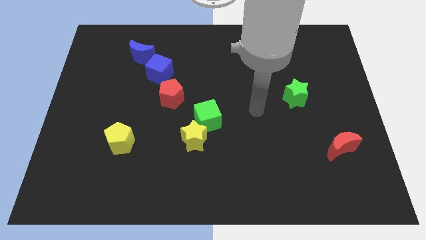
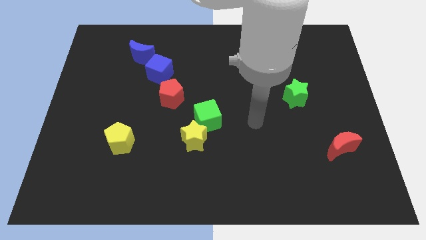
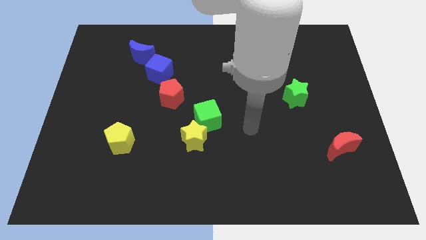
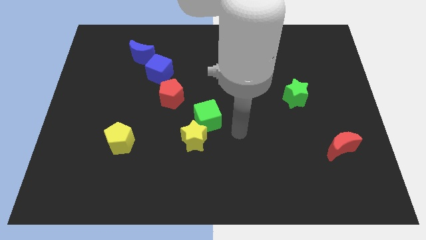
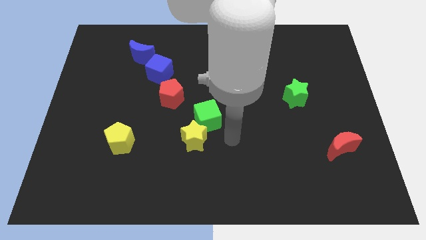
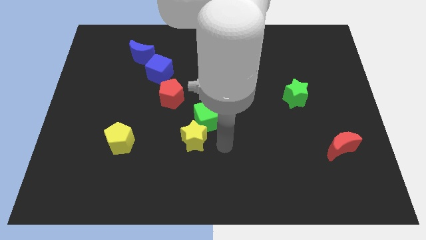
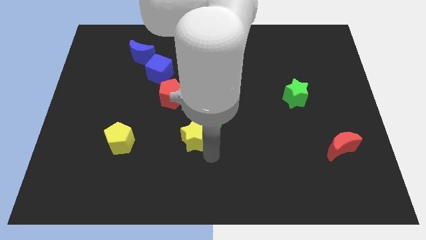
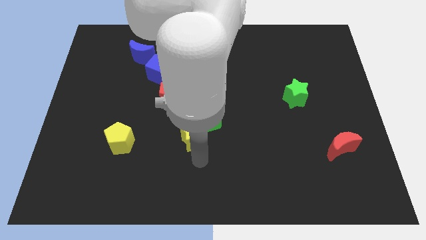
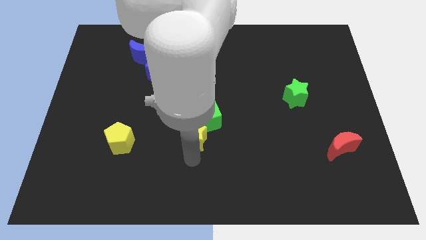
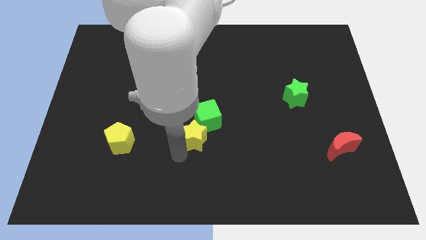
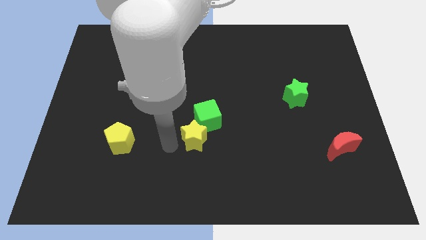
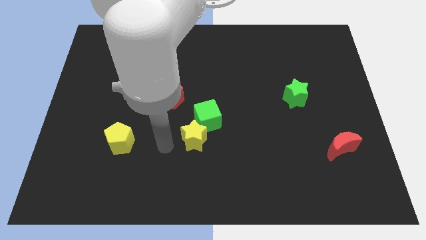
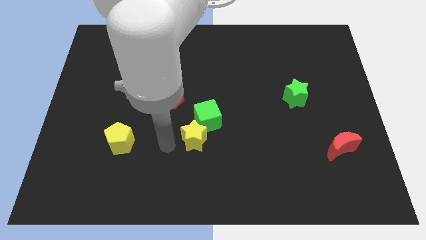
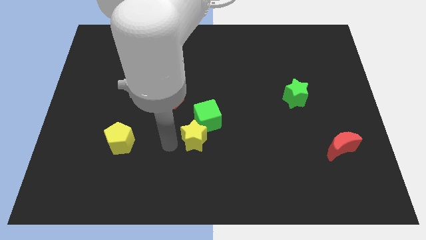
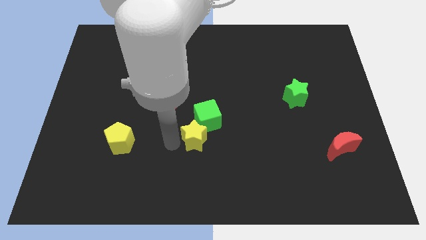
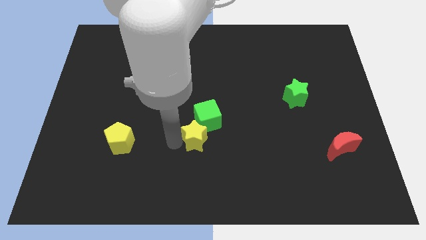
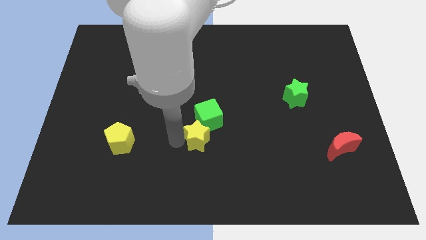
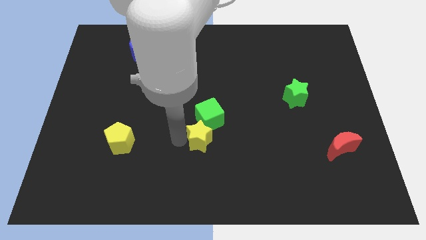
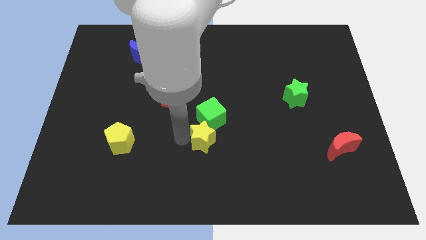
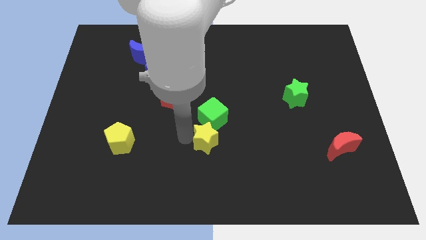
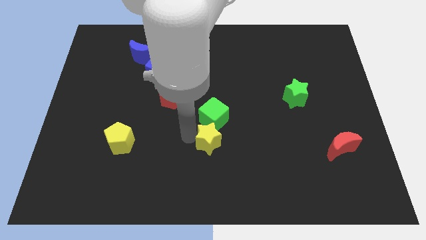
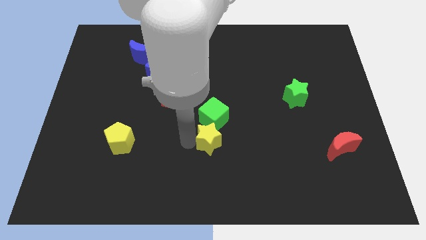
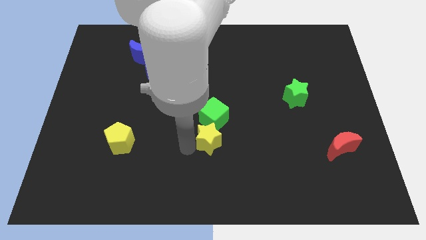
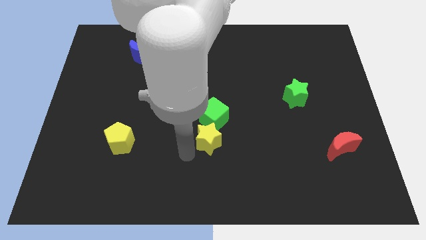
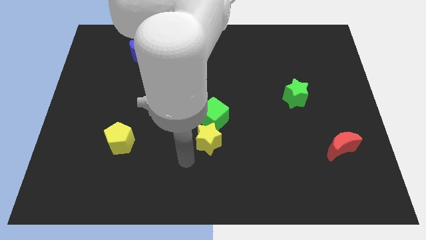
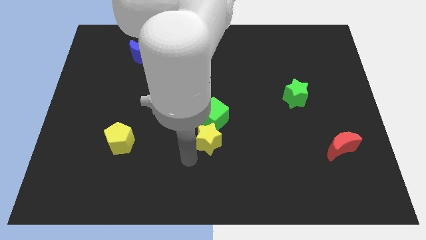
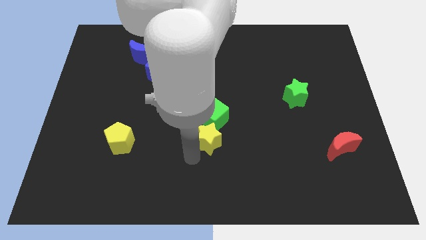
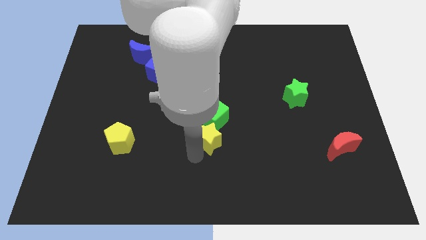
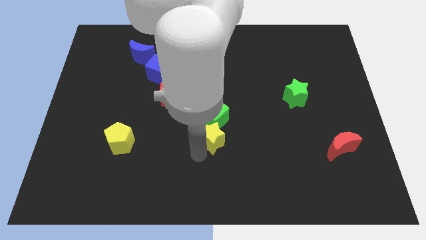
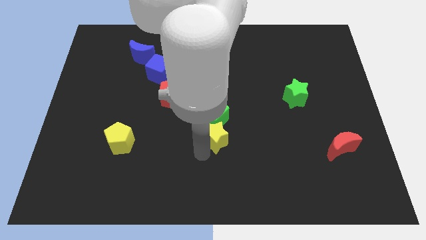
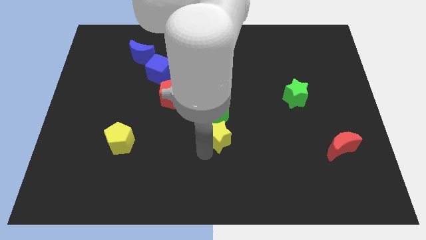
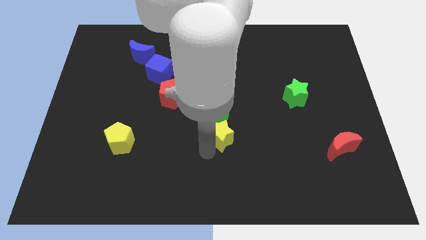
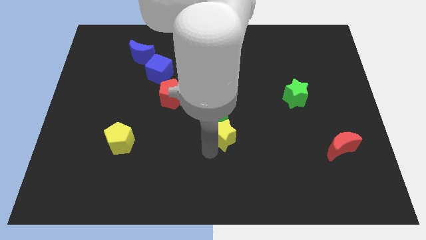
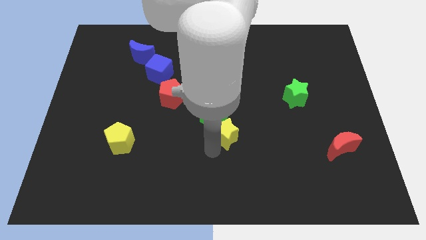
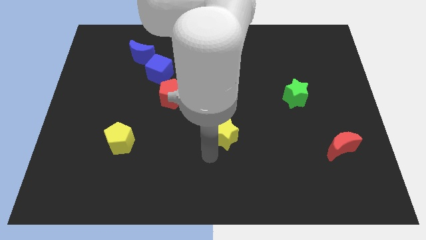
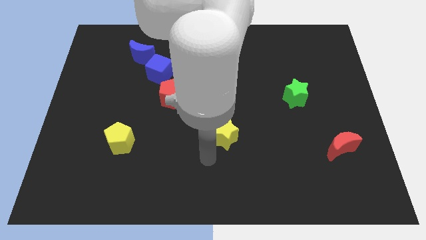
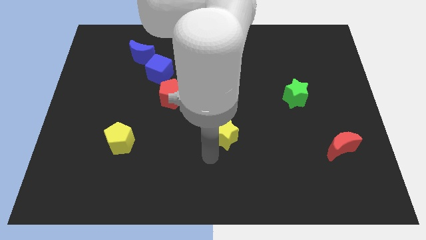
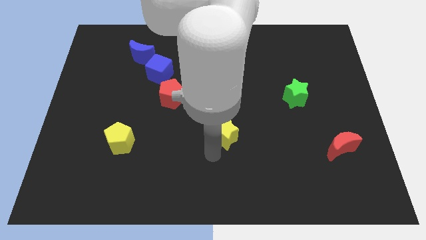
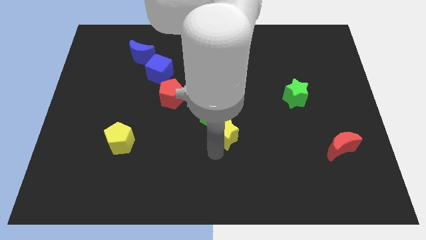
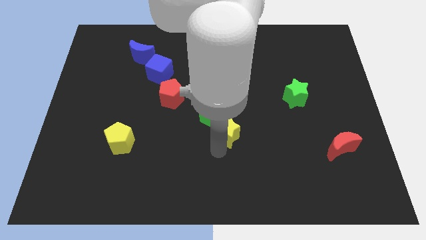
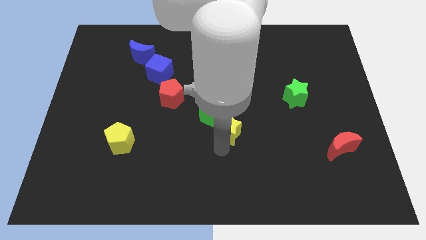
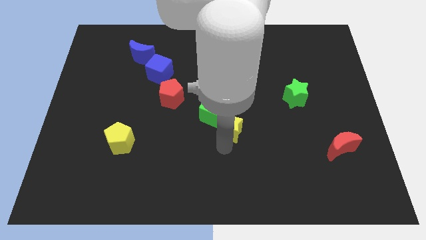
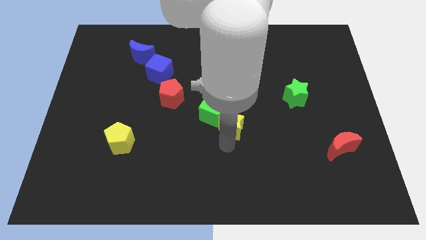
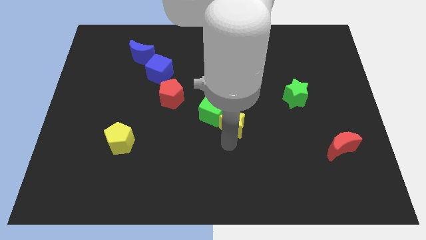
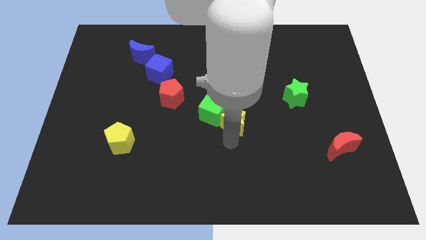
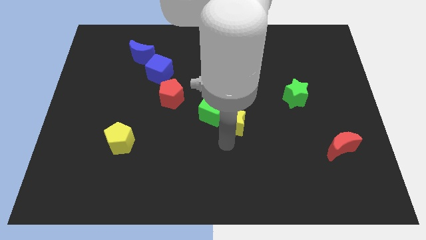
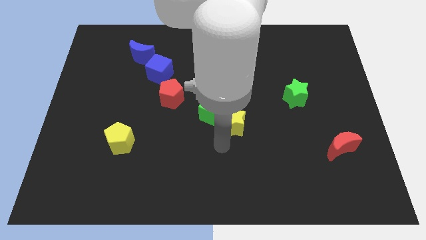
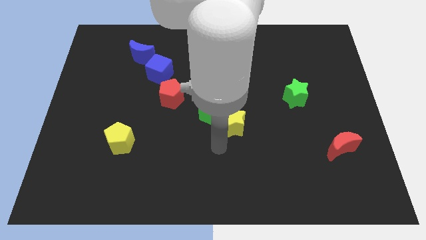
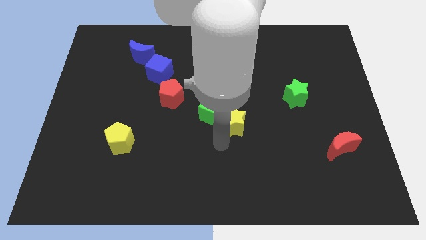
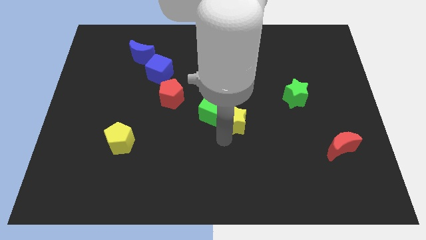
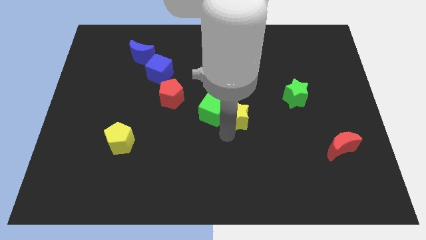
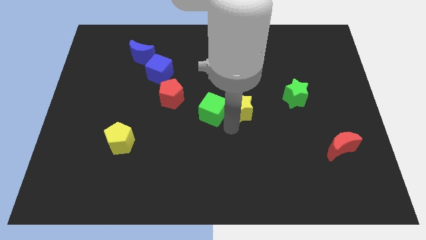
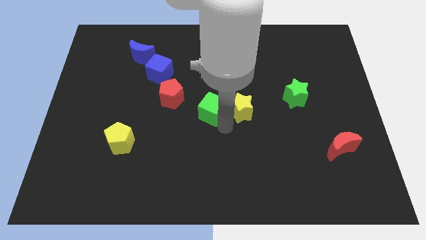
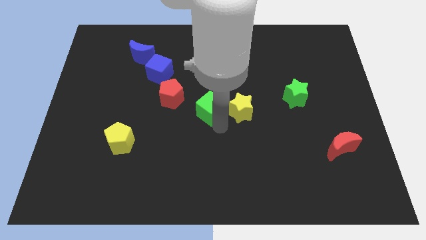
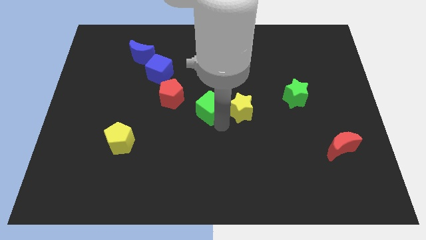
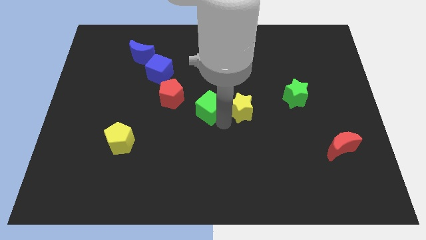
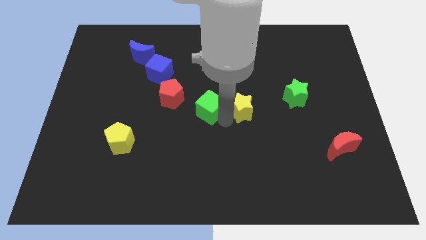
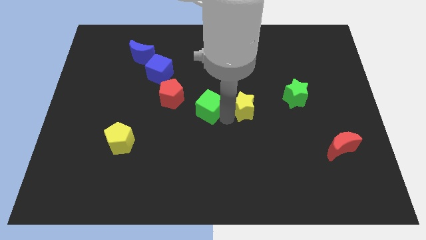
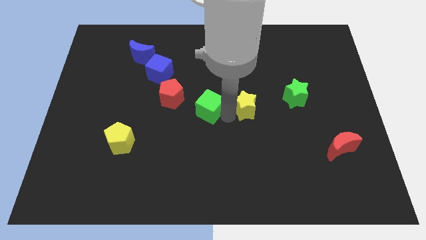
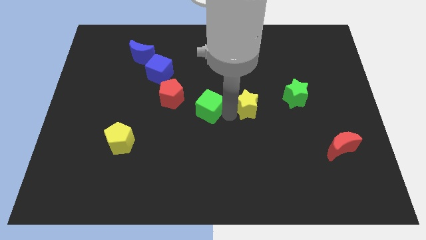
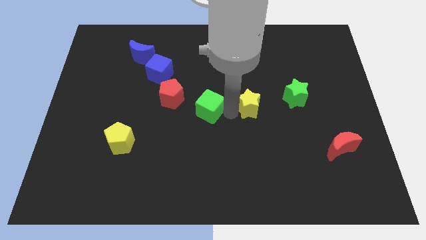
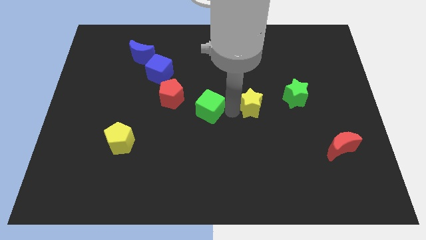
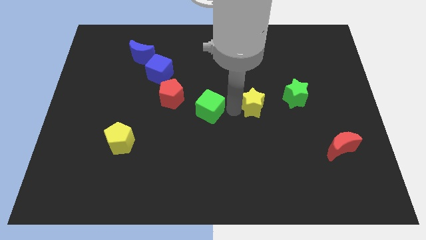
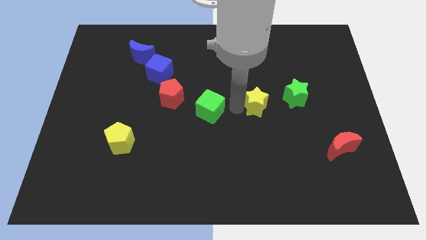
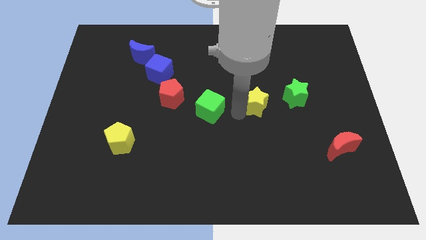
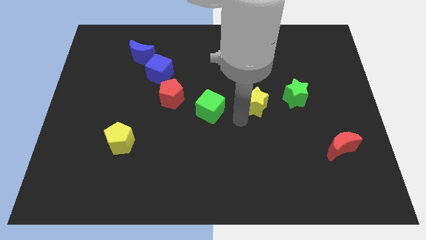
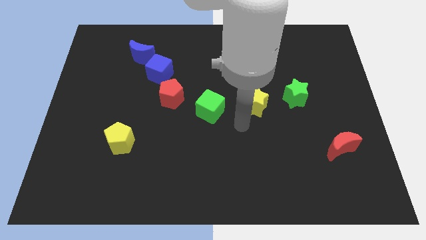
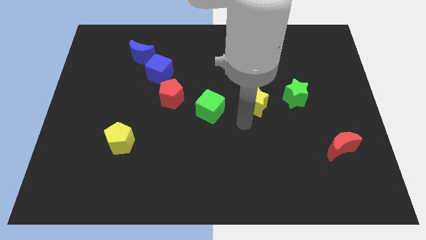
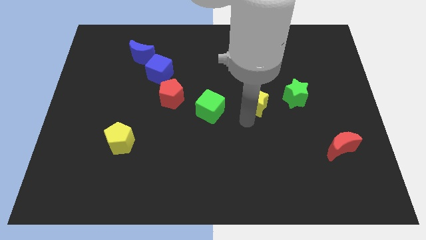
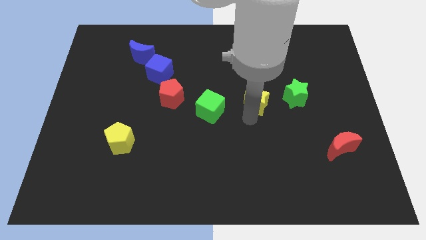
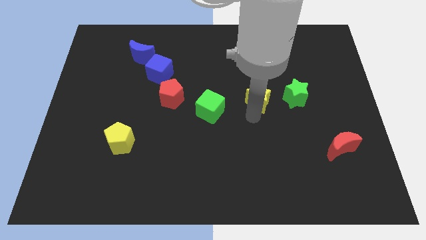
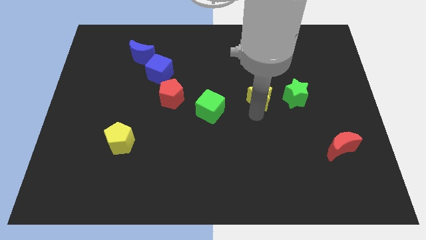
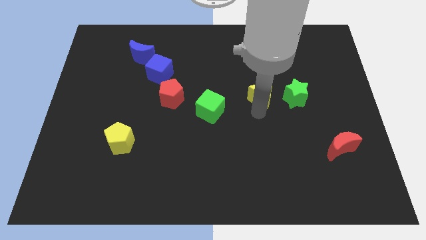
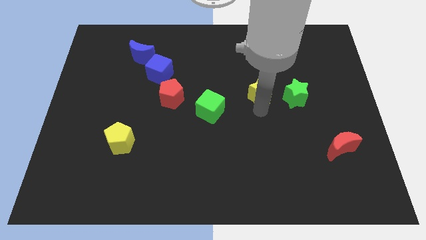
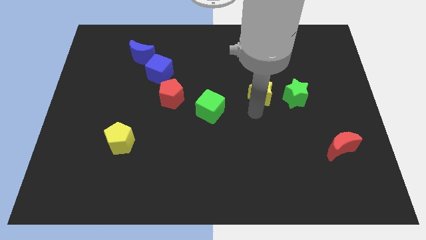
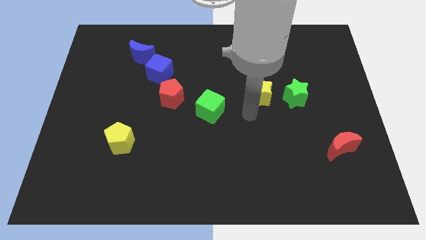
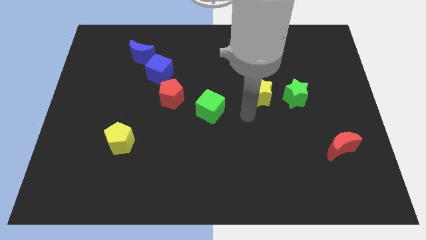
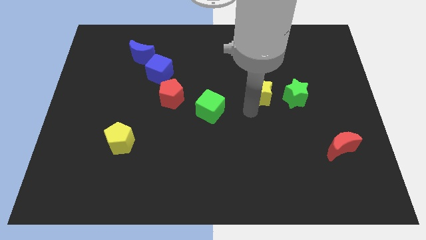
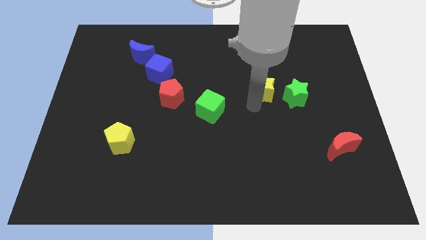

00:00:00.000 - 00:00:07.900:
move the yellow star diagonally up and to the left of the green star
